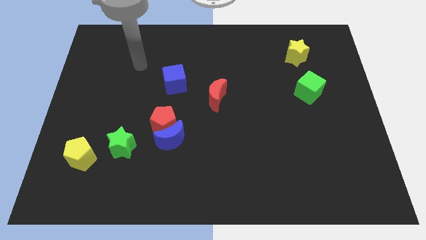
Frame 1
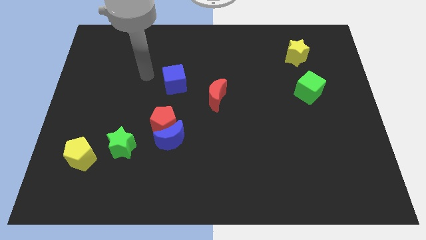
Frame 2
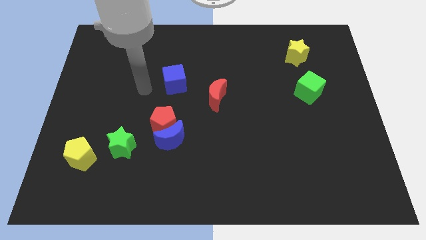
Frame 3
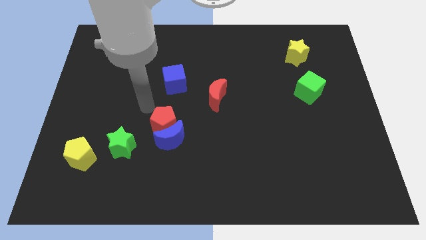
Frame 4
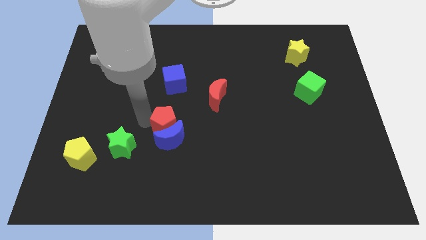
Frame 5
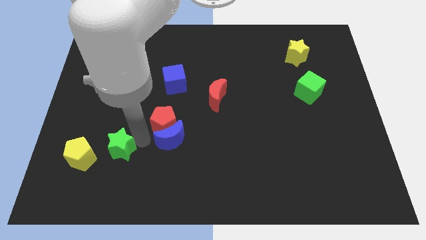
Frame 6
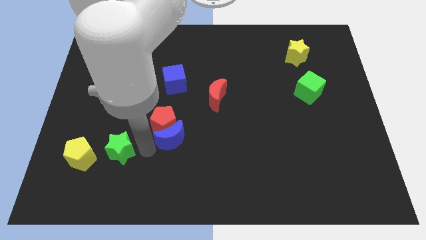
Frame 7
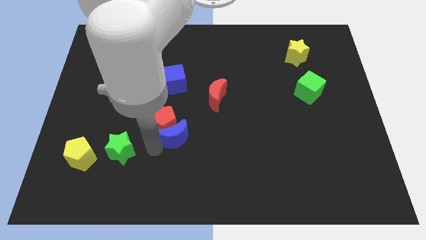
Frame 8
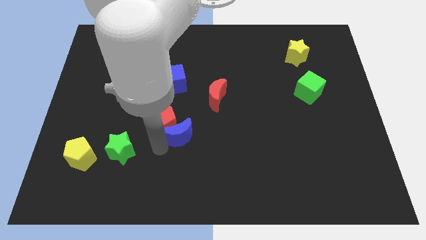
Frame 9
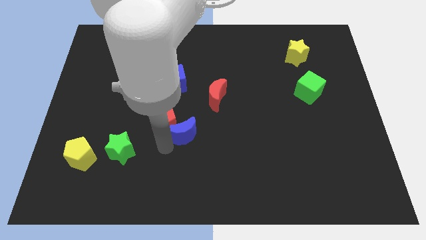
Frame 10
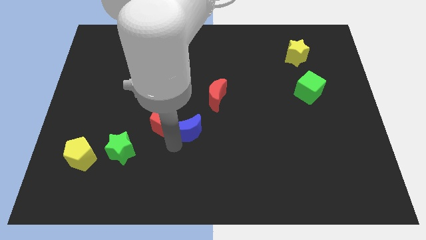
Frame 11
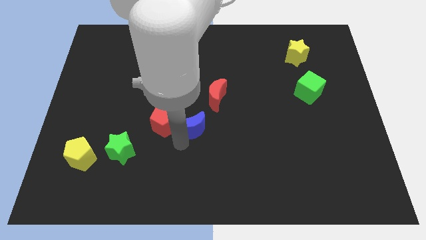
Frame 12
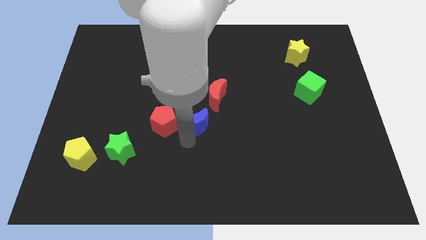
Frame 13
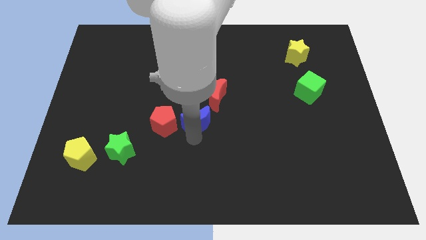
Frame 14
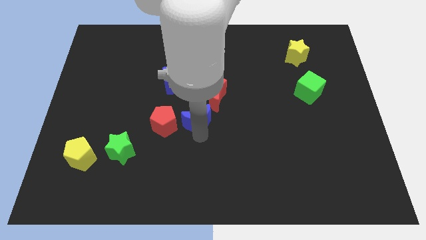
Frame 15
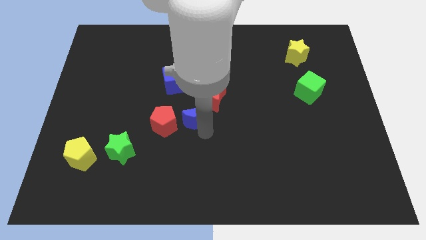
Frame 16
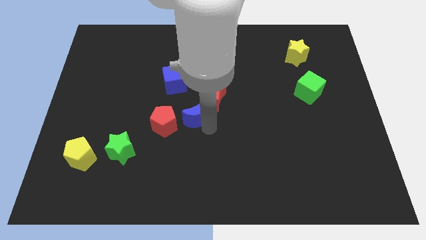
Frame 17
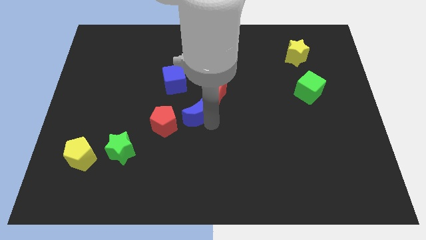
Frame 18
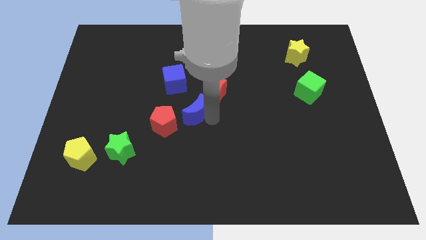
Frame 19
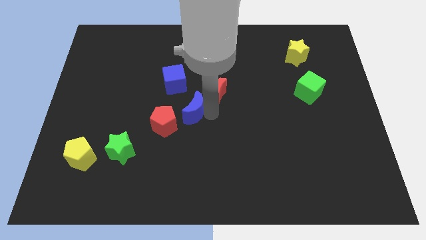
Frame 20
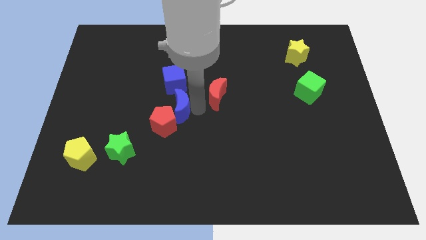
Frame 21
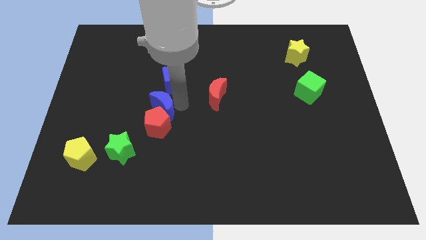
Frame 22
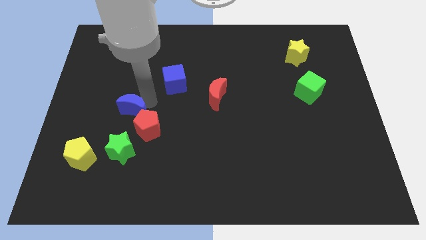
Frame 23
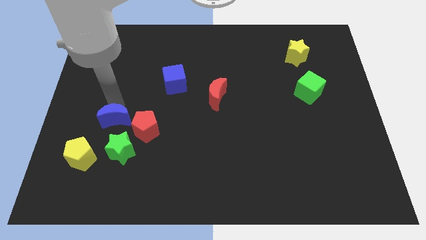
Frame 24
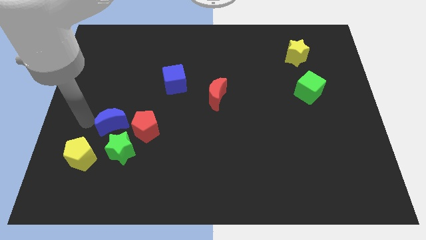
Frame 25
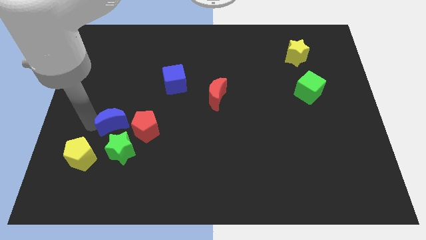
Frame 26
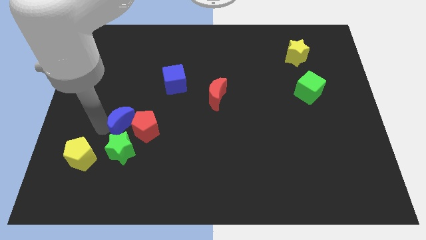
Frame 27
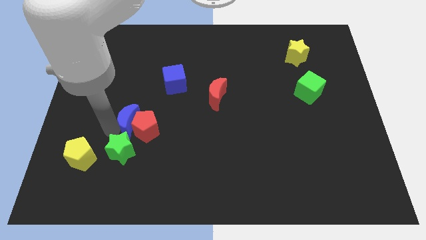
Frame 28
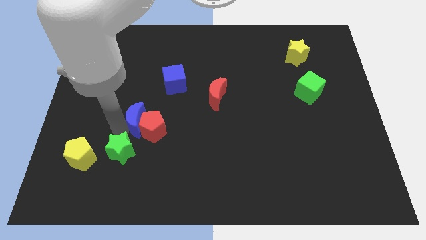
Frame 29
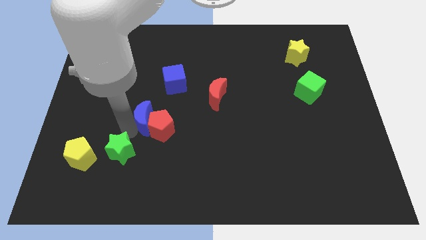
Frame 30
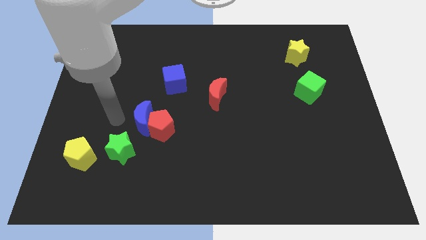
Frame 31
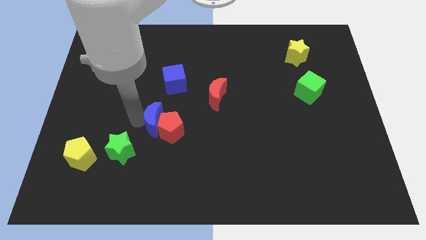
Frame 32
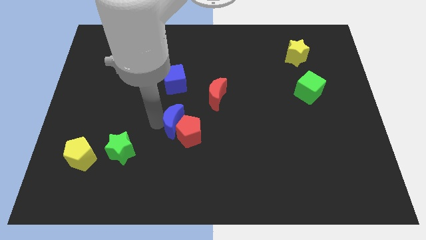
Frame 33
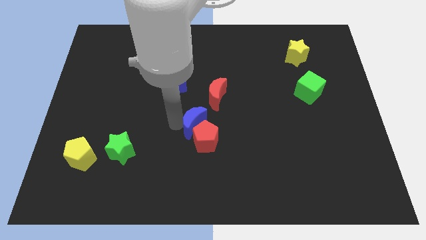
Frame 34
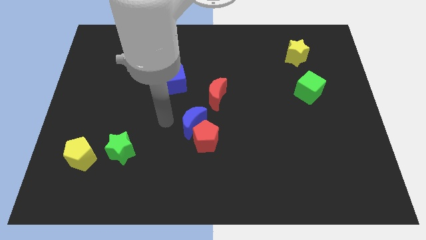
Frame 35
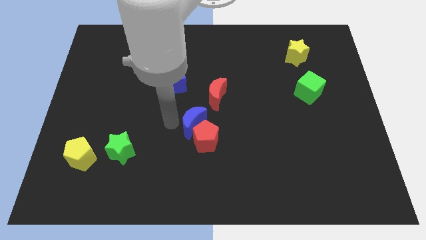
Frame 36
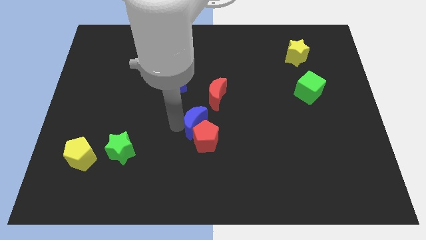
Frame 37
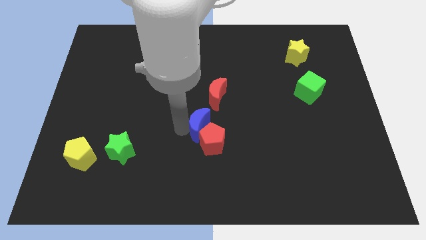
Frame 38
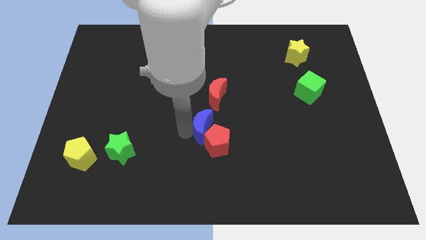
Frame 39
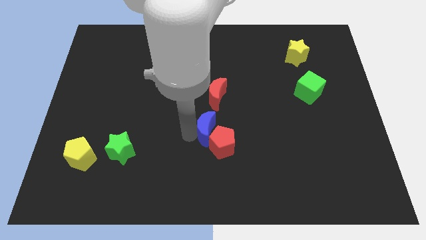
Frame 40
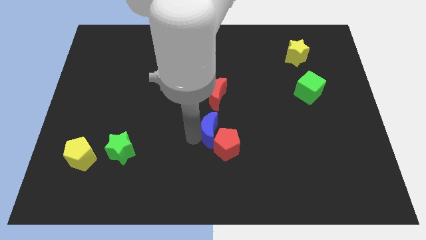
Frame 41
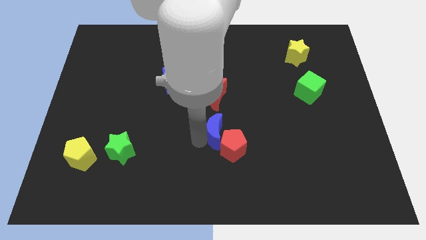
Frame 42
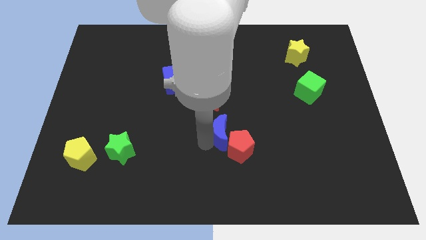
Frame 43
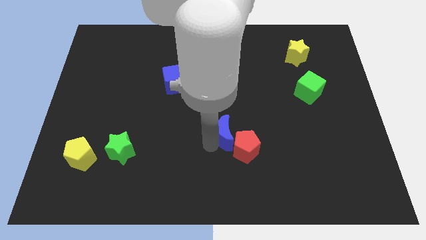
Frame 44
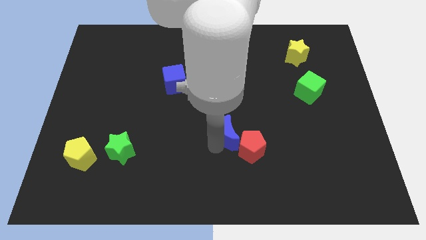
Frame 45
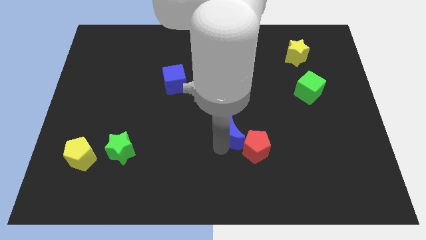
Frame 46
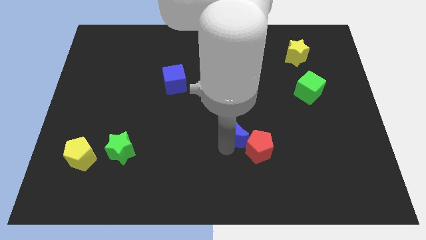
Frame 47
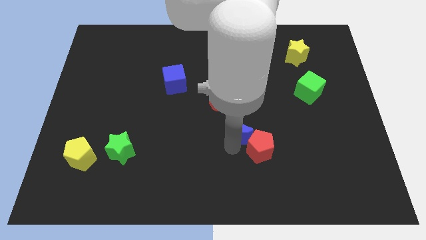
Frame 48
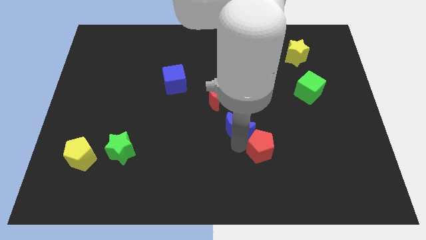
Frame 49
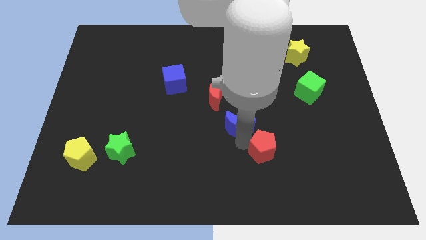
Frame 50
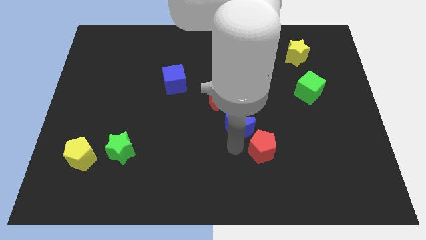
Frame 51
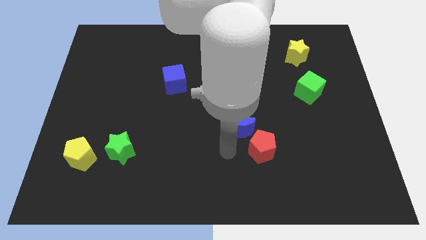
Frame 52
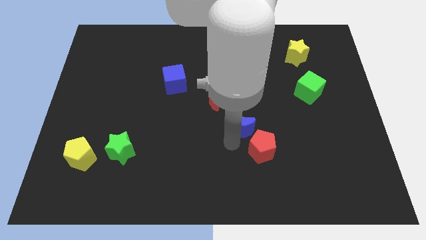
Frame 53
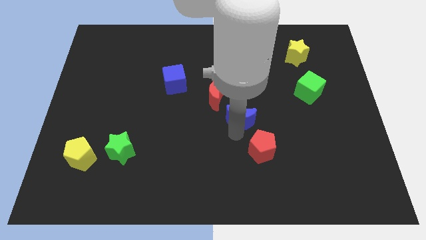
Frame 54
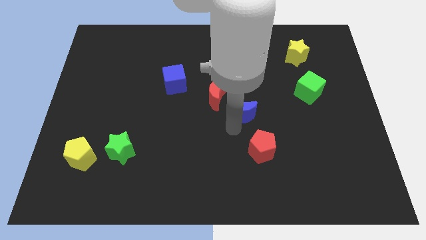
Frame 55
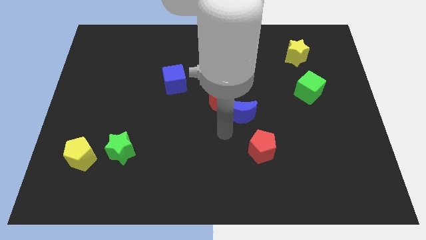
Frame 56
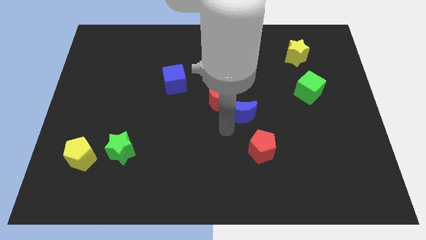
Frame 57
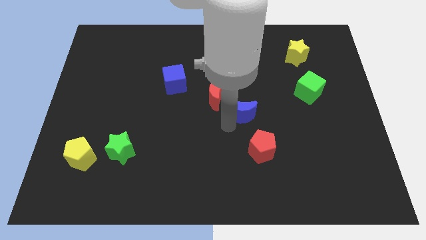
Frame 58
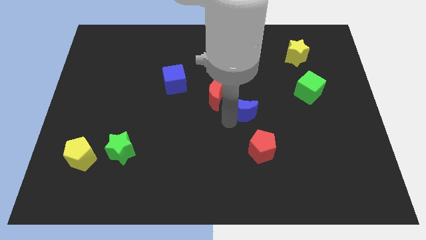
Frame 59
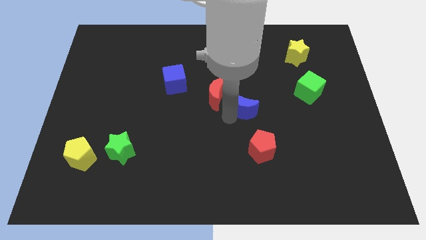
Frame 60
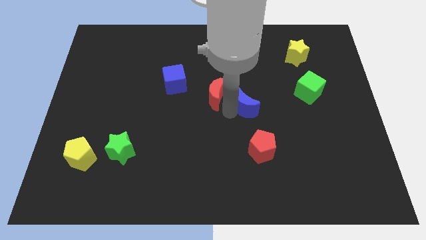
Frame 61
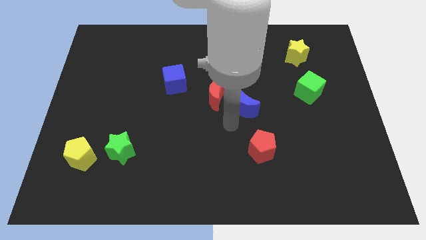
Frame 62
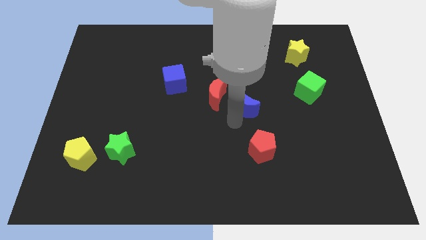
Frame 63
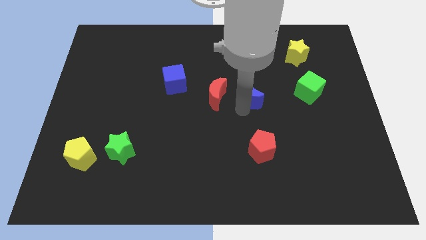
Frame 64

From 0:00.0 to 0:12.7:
move the blue moon upwards and then right

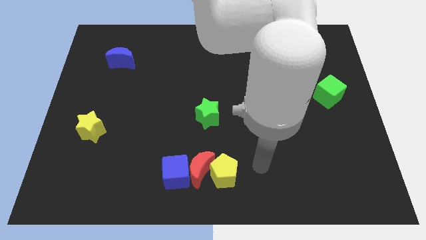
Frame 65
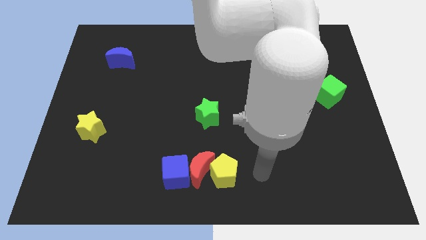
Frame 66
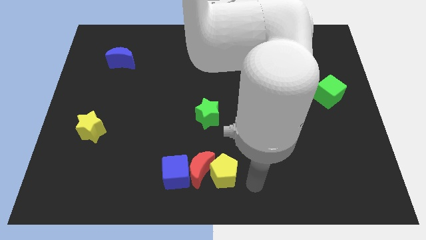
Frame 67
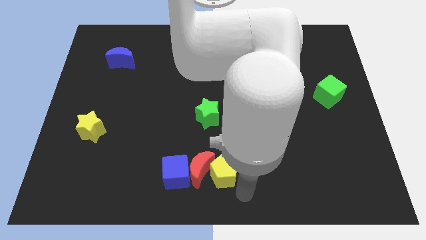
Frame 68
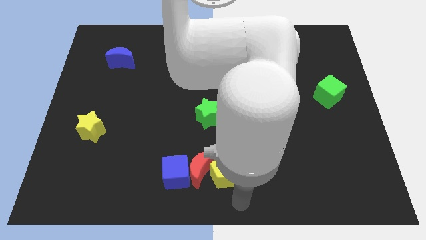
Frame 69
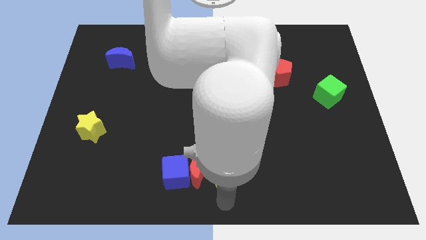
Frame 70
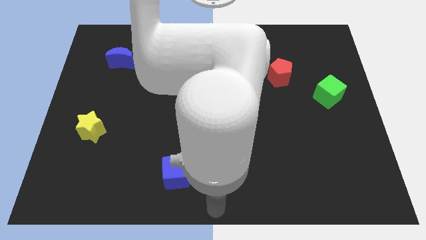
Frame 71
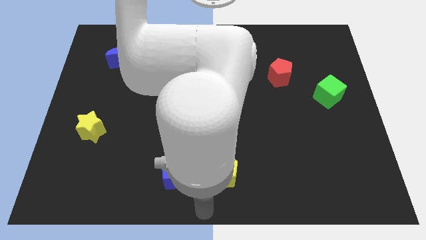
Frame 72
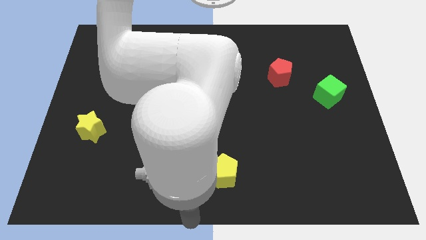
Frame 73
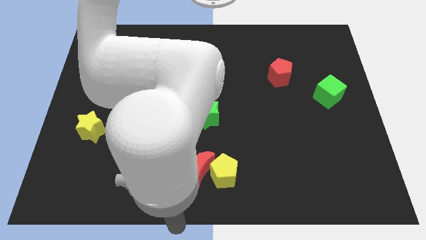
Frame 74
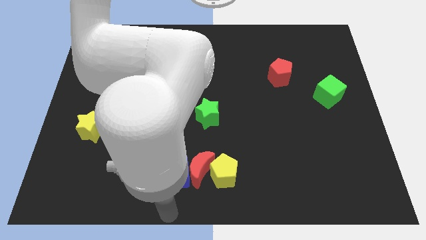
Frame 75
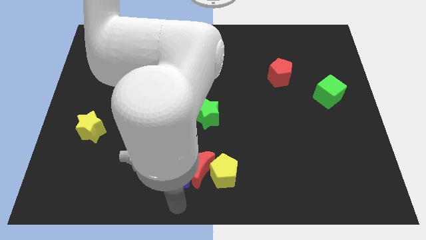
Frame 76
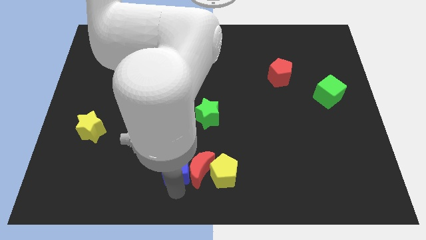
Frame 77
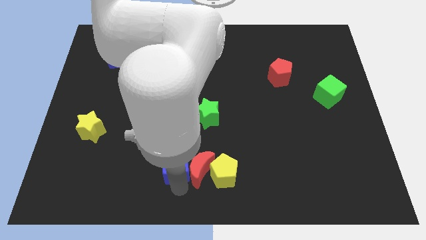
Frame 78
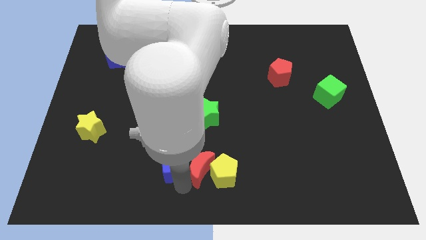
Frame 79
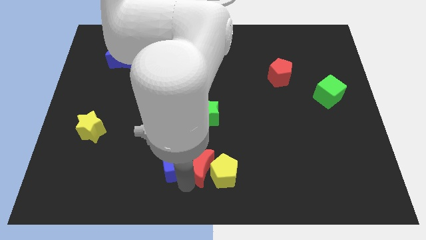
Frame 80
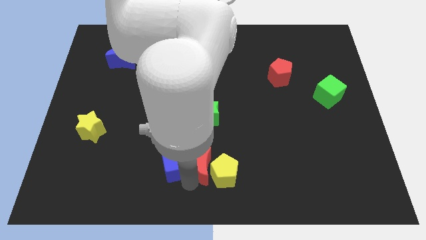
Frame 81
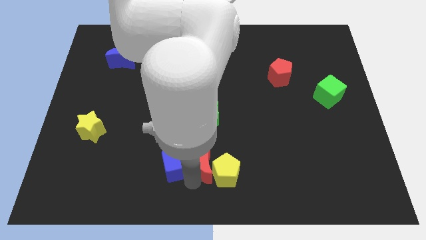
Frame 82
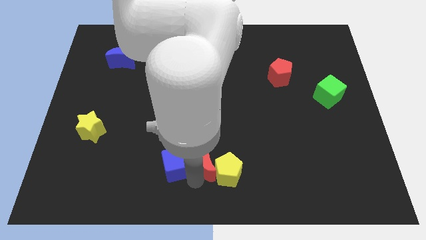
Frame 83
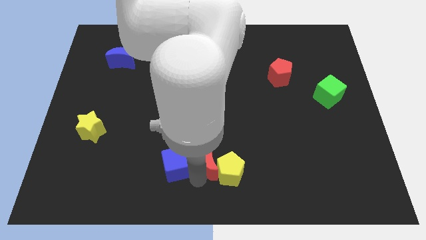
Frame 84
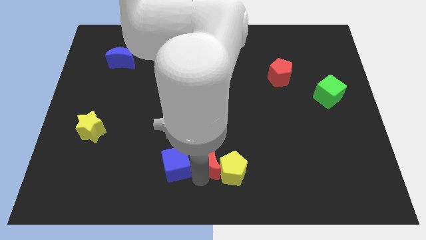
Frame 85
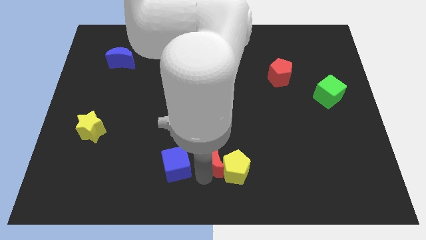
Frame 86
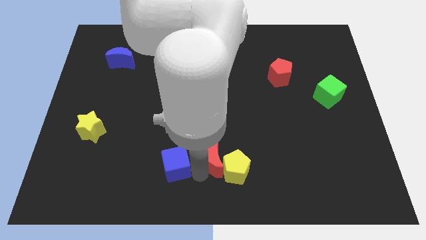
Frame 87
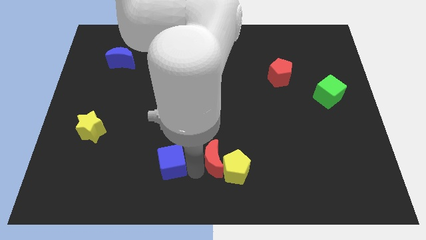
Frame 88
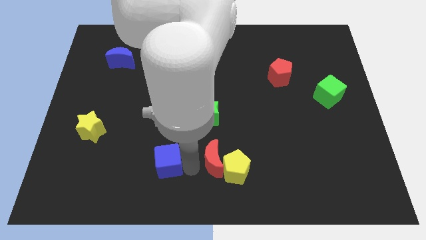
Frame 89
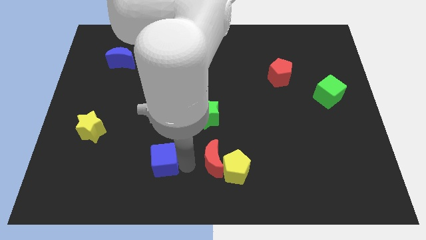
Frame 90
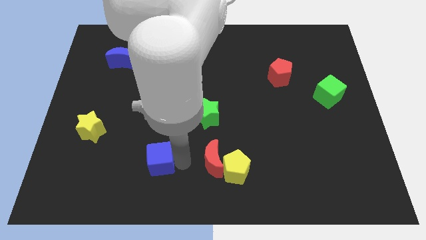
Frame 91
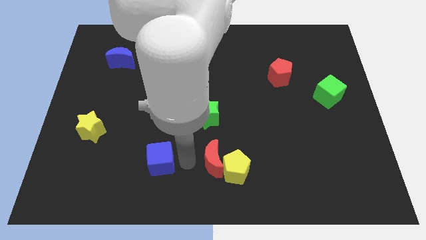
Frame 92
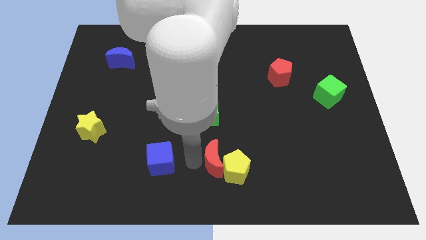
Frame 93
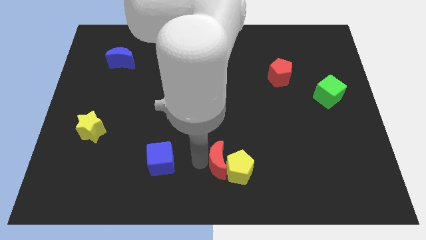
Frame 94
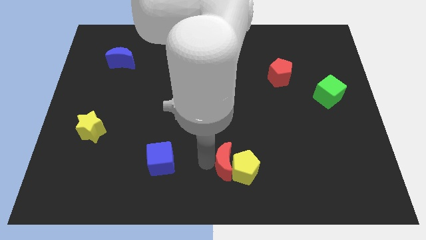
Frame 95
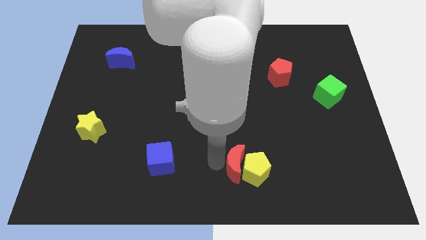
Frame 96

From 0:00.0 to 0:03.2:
slightly move the red moon right
